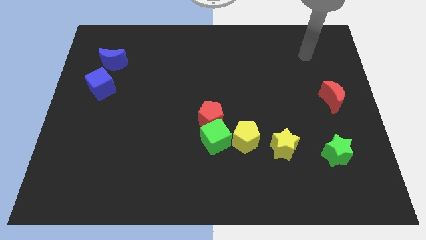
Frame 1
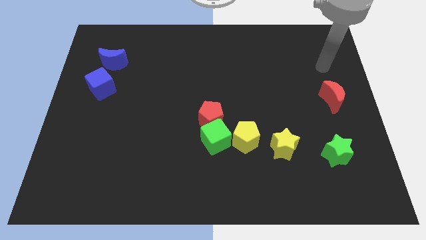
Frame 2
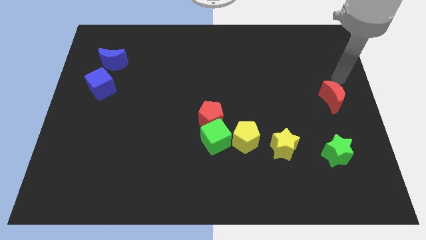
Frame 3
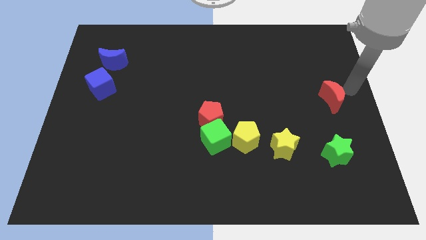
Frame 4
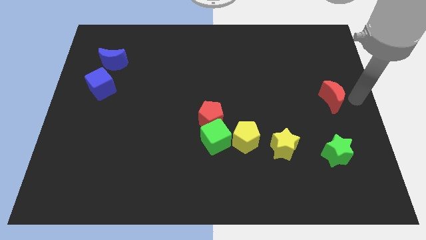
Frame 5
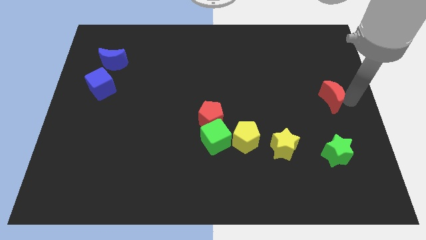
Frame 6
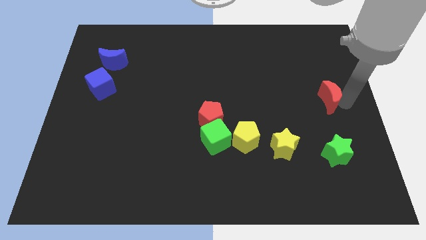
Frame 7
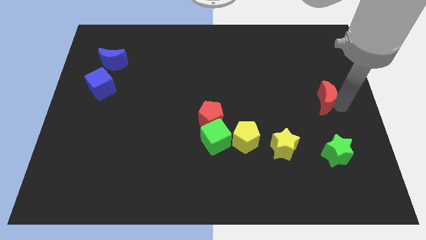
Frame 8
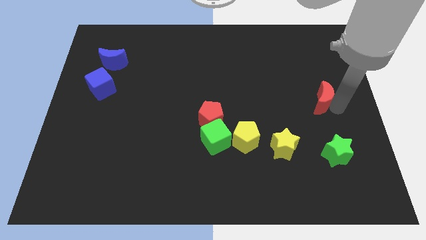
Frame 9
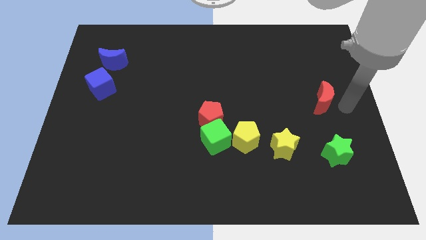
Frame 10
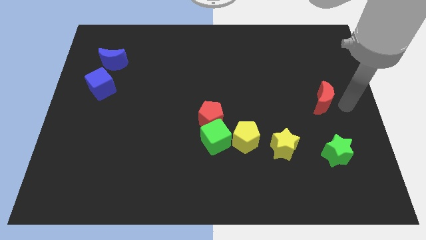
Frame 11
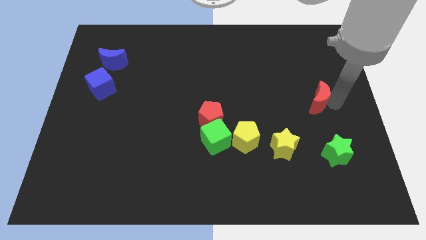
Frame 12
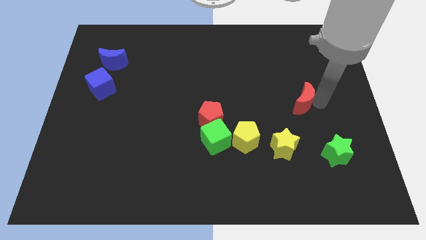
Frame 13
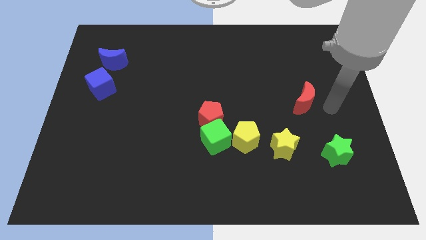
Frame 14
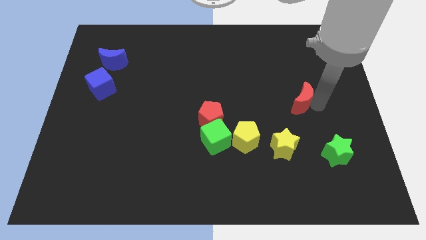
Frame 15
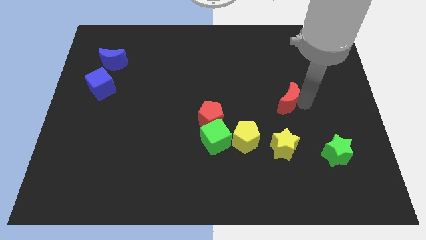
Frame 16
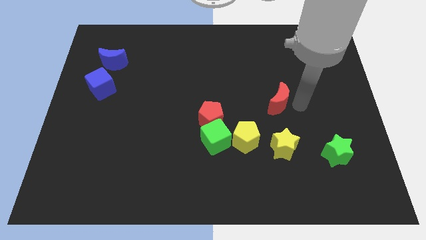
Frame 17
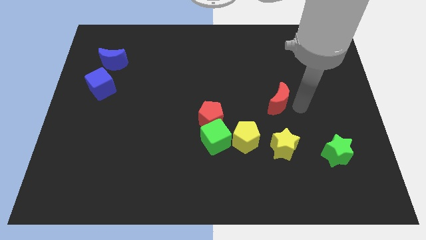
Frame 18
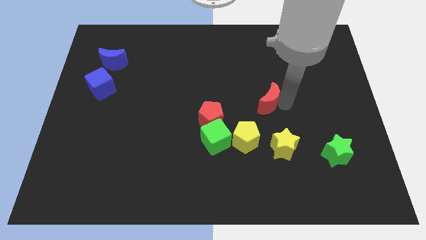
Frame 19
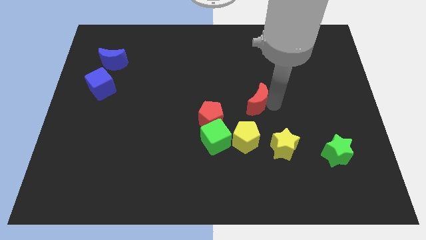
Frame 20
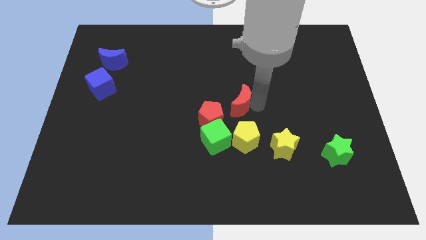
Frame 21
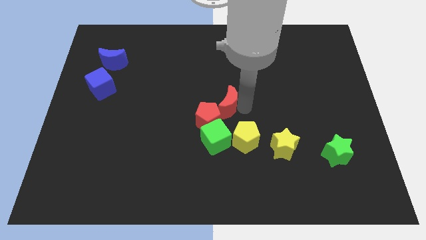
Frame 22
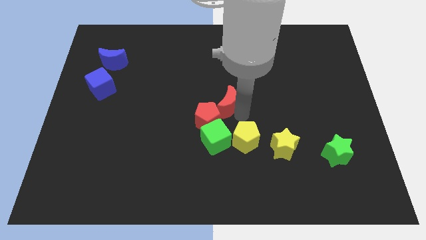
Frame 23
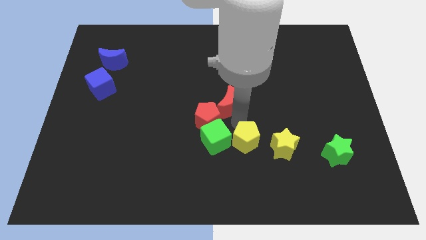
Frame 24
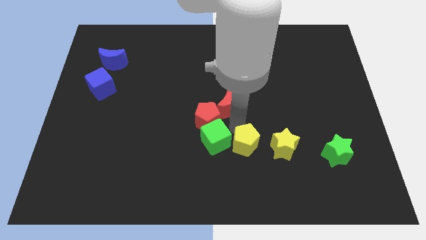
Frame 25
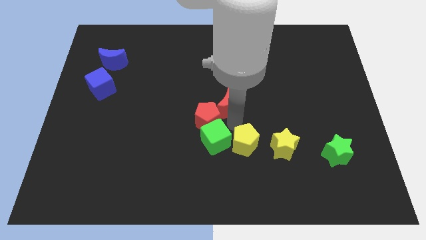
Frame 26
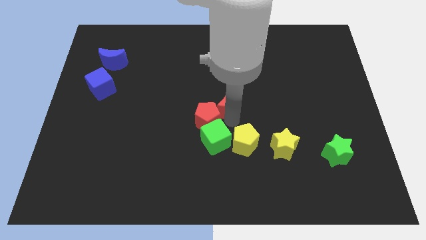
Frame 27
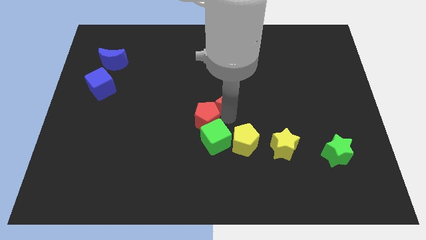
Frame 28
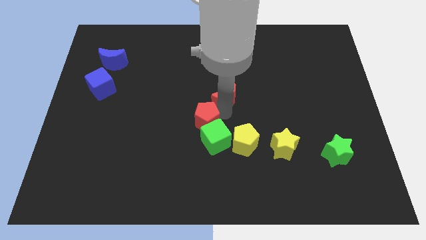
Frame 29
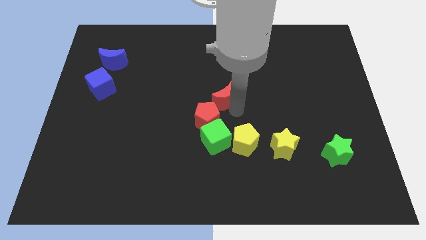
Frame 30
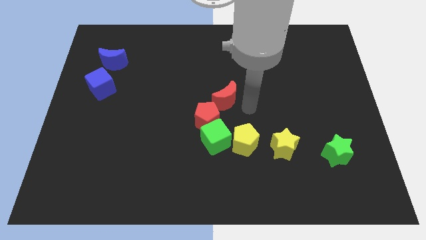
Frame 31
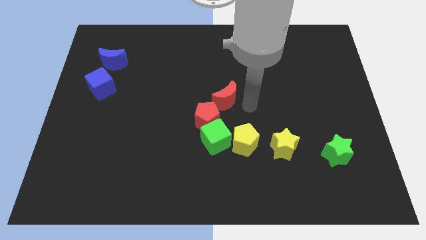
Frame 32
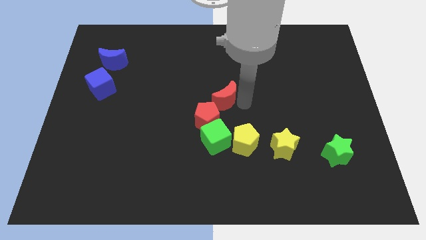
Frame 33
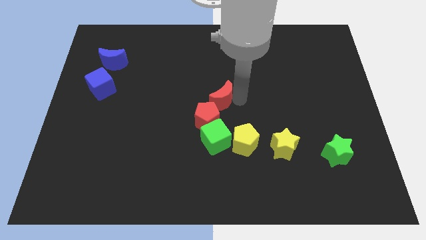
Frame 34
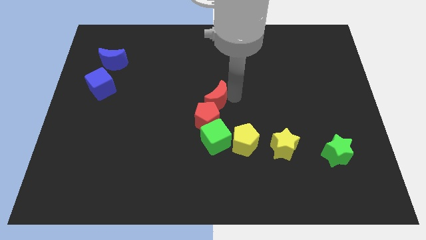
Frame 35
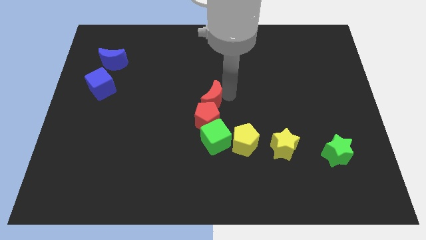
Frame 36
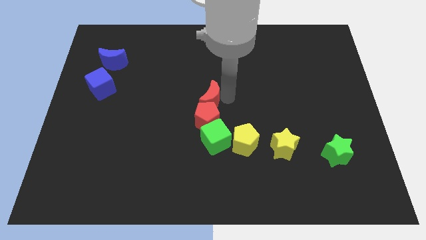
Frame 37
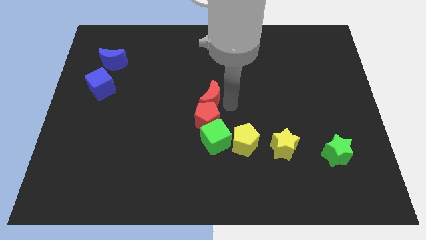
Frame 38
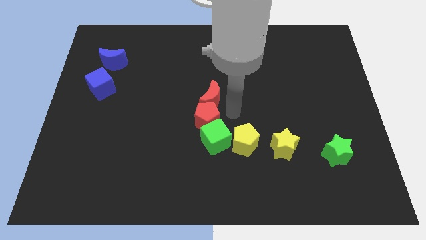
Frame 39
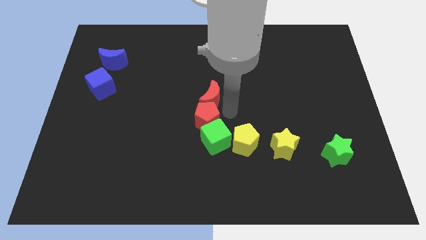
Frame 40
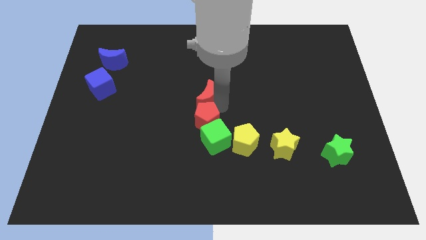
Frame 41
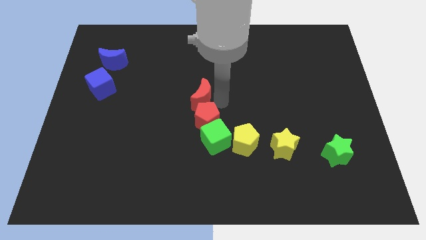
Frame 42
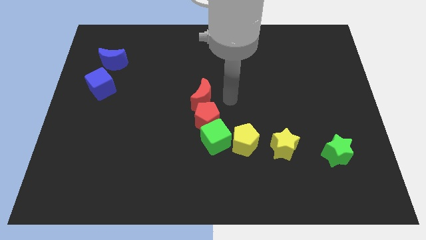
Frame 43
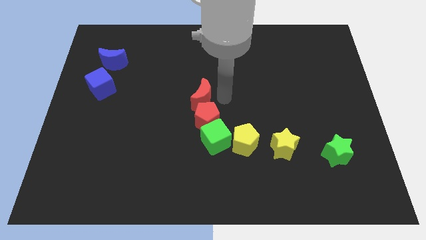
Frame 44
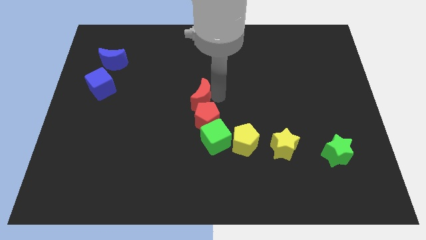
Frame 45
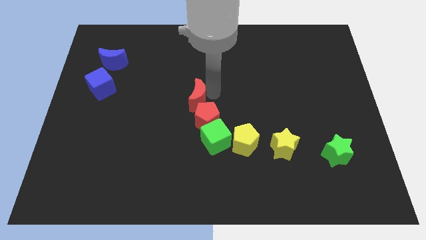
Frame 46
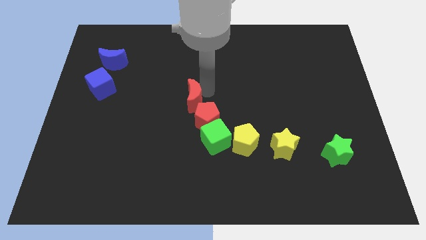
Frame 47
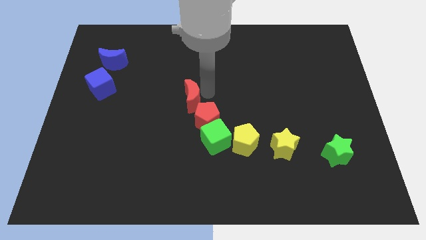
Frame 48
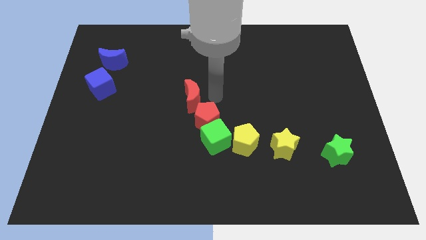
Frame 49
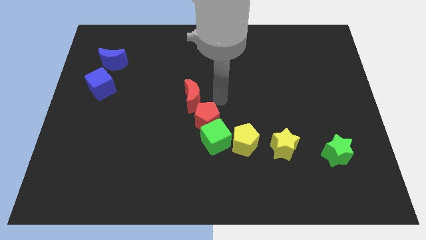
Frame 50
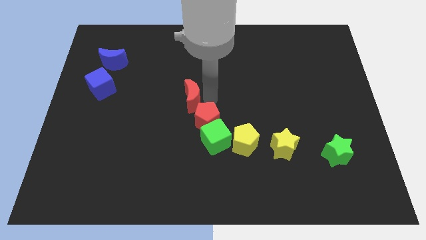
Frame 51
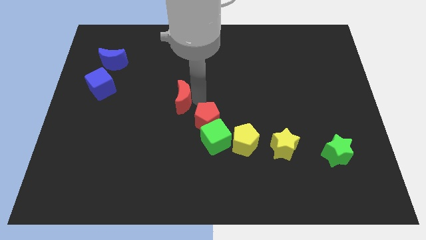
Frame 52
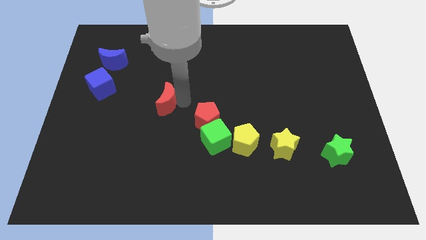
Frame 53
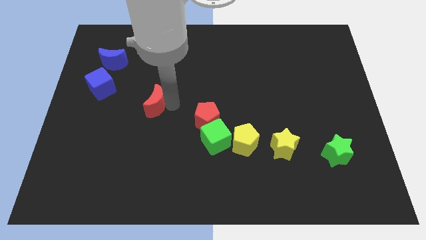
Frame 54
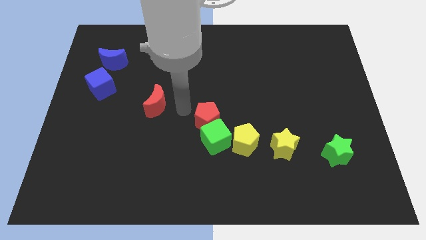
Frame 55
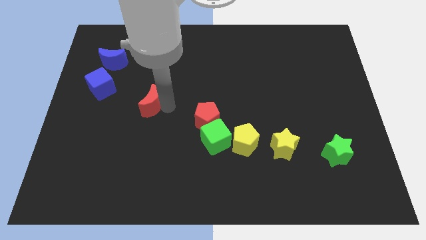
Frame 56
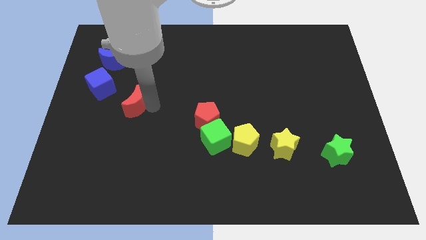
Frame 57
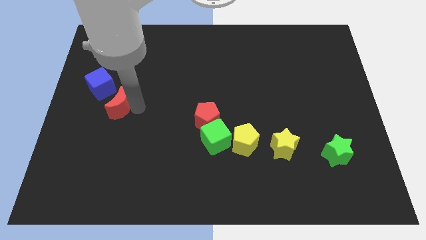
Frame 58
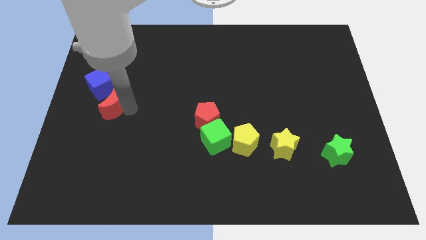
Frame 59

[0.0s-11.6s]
slide the red moon below the blue moon

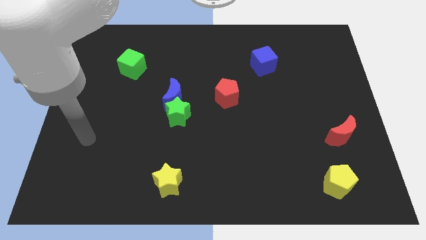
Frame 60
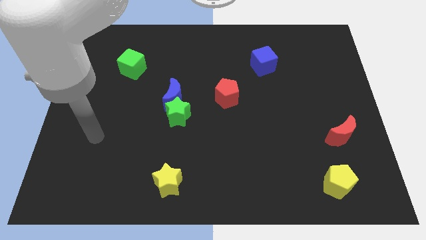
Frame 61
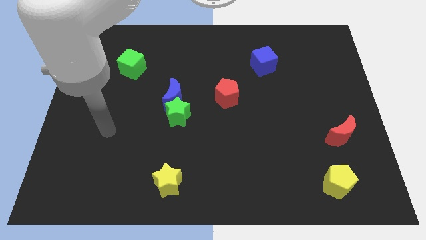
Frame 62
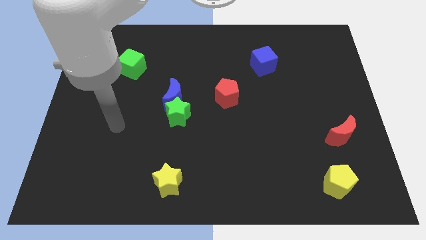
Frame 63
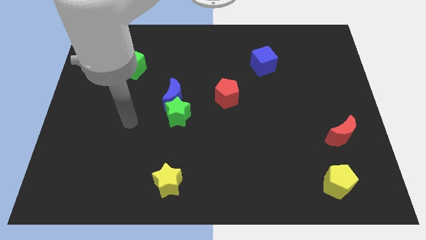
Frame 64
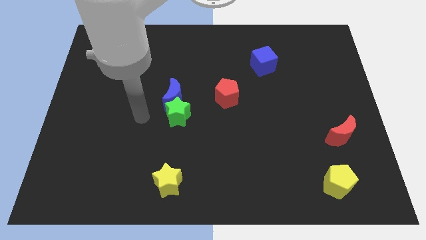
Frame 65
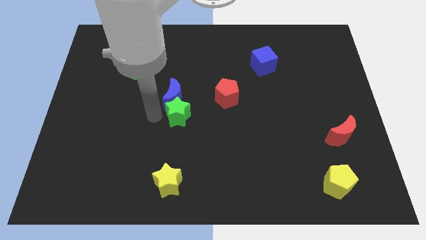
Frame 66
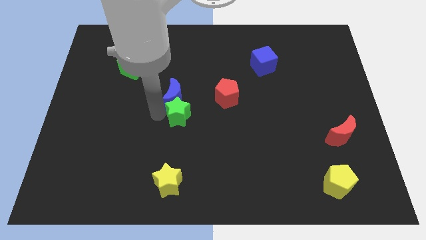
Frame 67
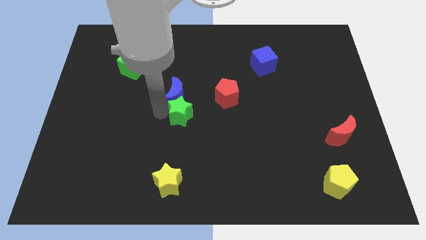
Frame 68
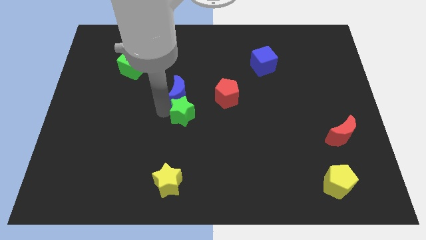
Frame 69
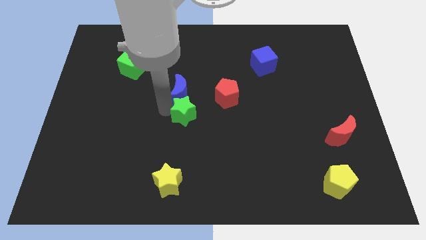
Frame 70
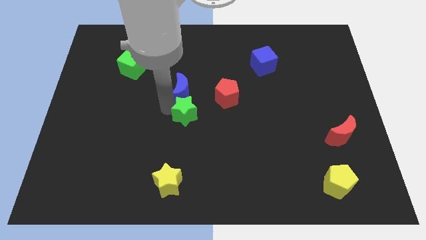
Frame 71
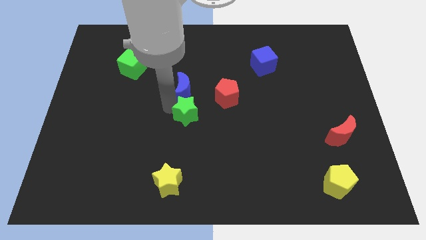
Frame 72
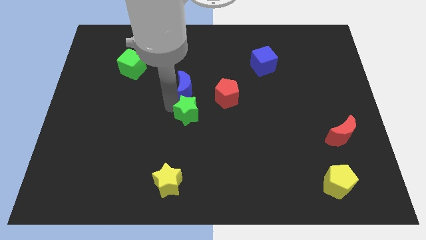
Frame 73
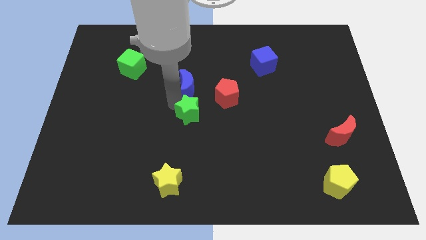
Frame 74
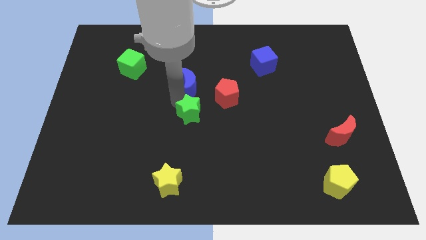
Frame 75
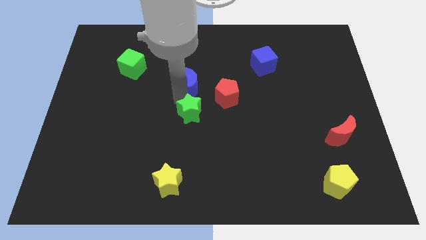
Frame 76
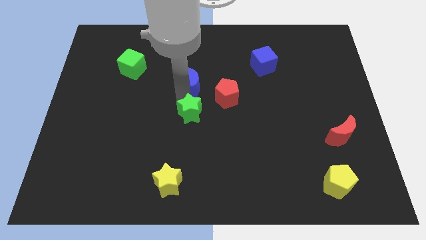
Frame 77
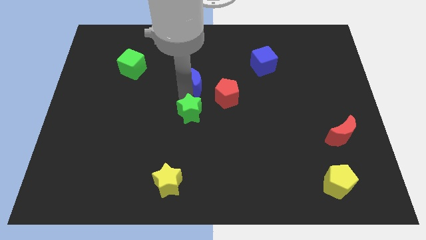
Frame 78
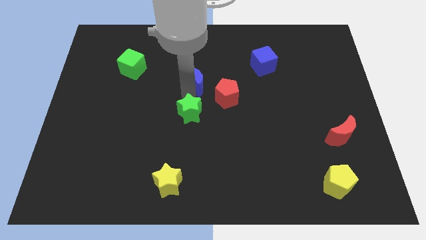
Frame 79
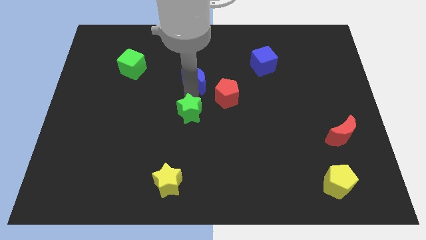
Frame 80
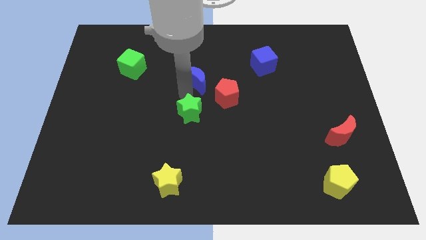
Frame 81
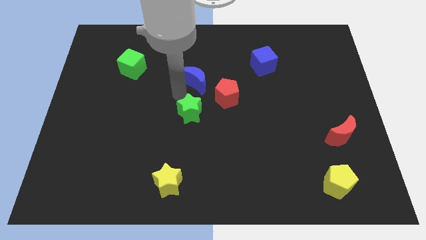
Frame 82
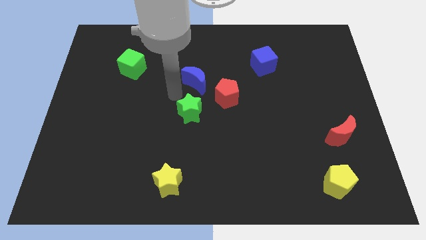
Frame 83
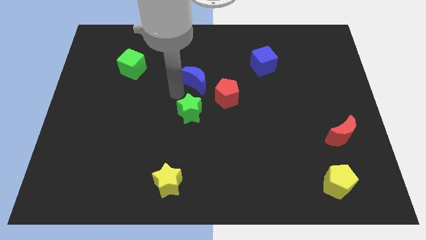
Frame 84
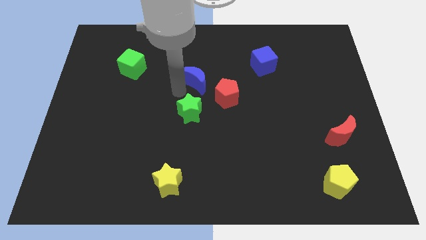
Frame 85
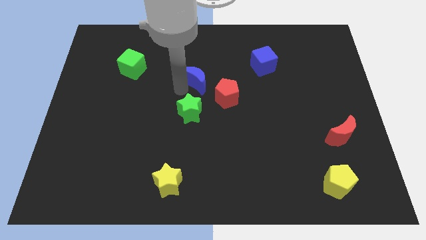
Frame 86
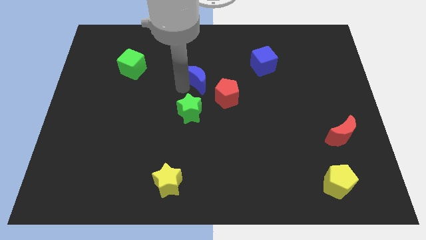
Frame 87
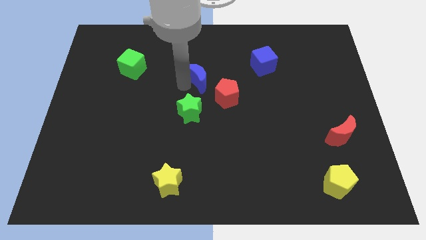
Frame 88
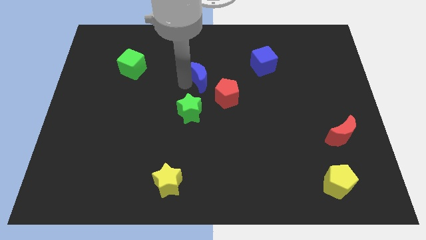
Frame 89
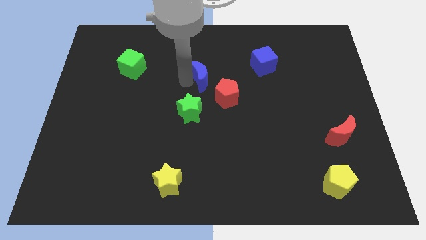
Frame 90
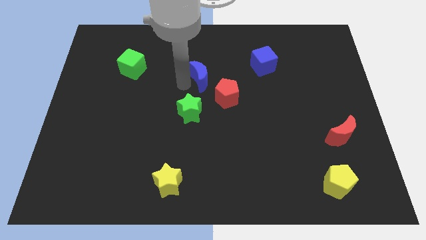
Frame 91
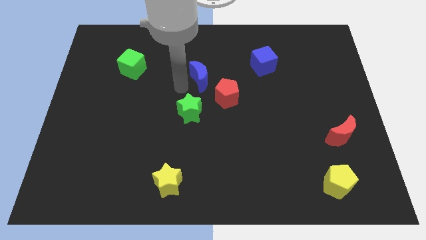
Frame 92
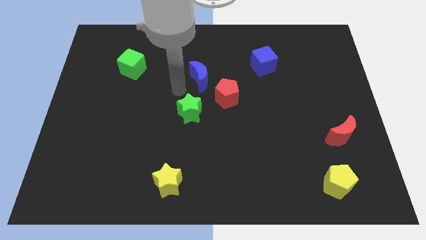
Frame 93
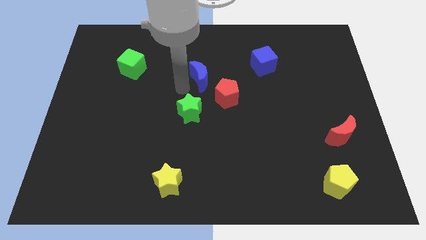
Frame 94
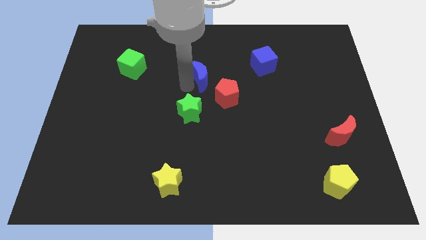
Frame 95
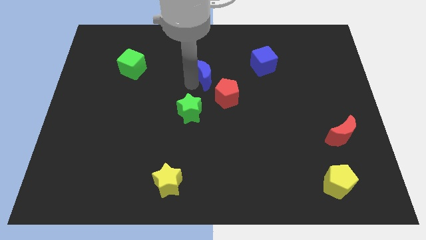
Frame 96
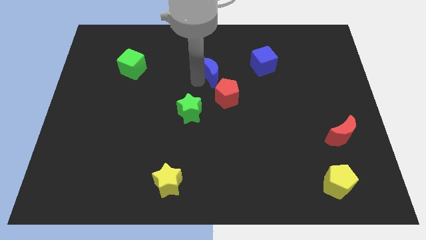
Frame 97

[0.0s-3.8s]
slide the blue moon to the top of the red pentagon
